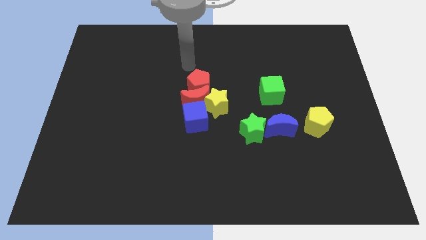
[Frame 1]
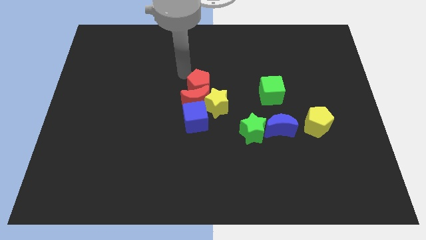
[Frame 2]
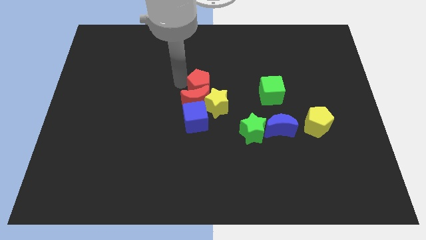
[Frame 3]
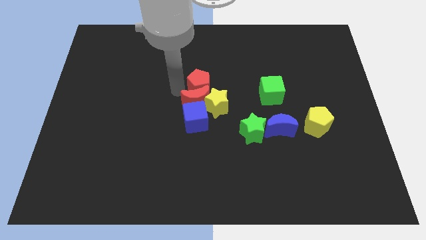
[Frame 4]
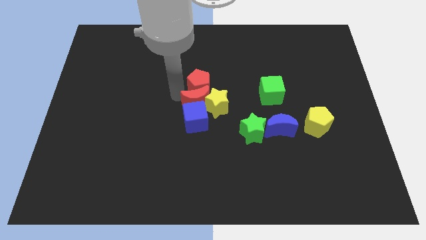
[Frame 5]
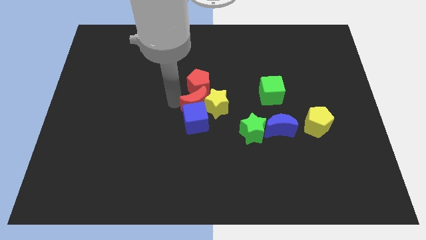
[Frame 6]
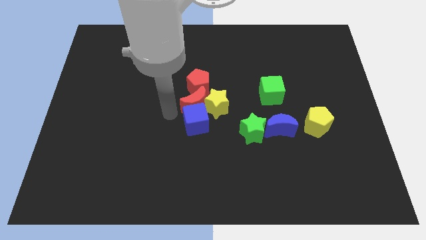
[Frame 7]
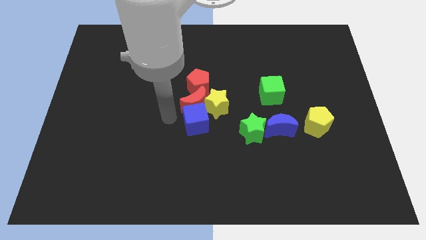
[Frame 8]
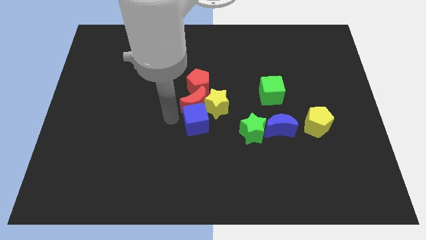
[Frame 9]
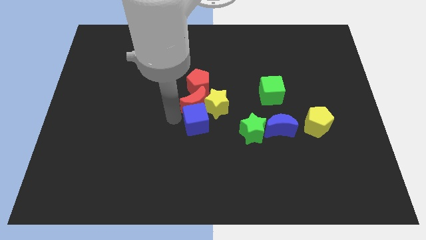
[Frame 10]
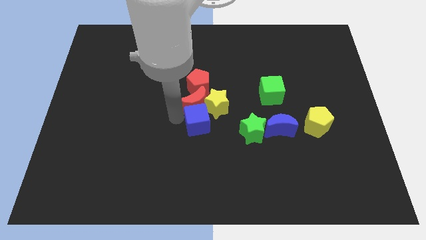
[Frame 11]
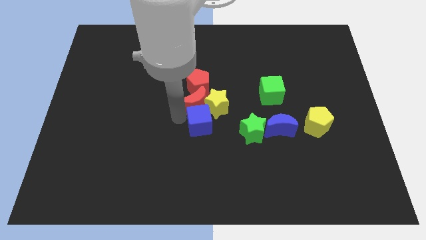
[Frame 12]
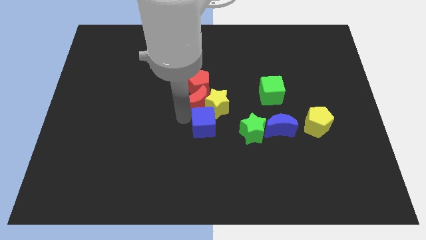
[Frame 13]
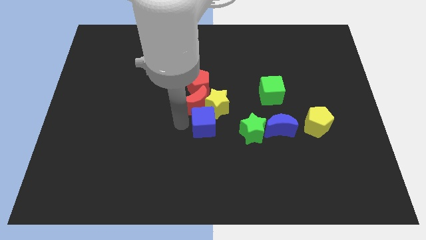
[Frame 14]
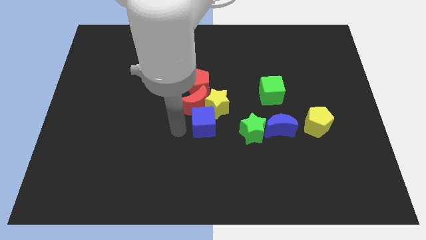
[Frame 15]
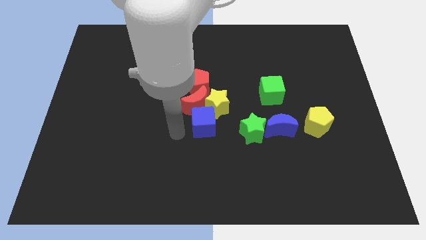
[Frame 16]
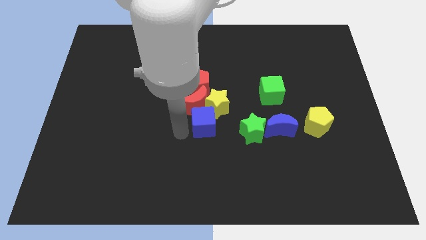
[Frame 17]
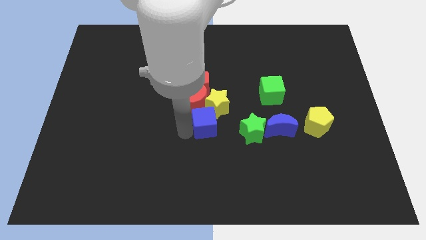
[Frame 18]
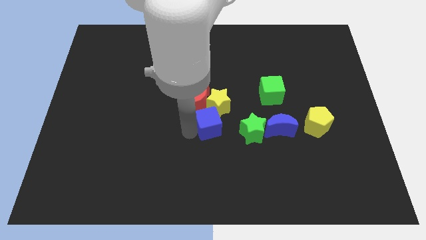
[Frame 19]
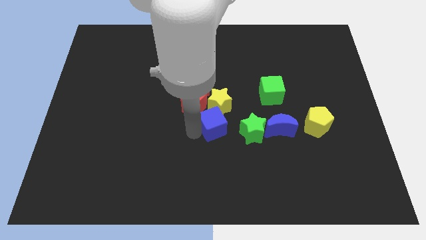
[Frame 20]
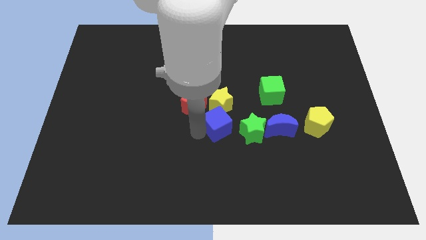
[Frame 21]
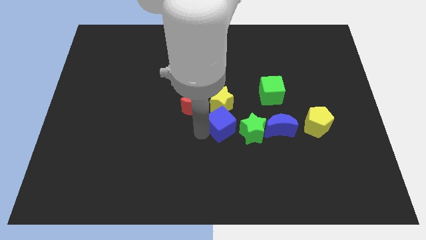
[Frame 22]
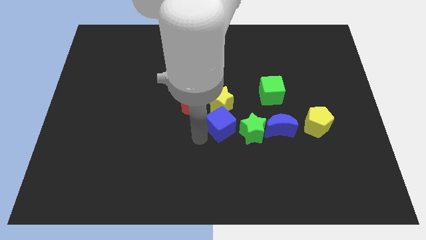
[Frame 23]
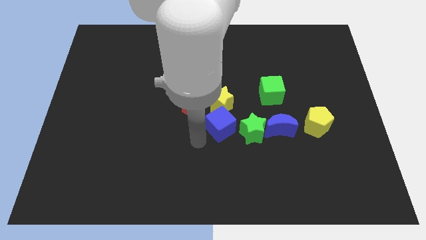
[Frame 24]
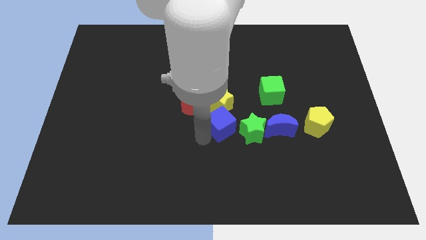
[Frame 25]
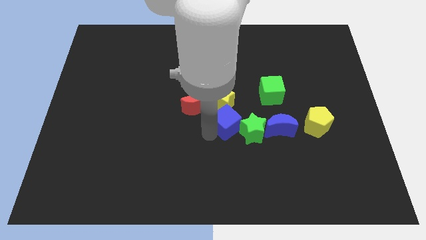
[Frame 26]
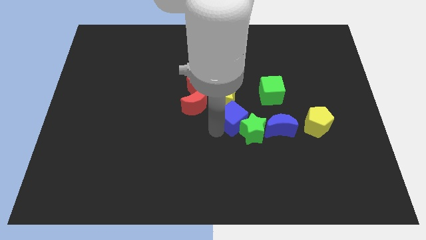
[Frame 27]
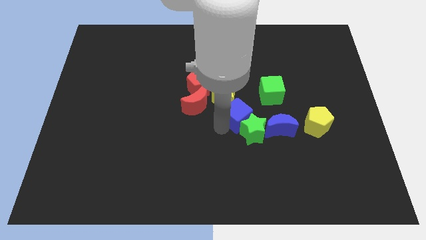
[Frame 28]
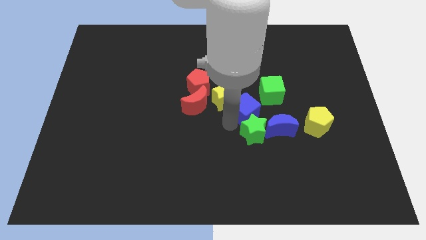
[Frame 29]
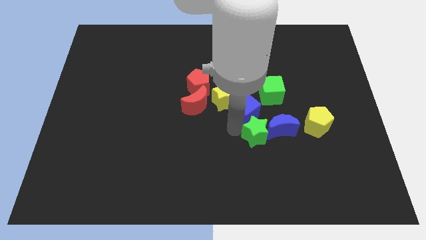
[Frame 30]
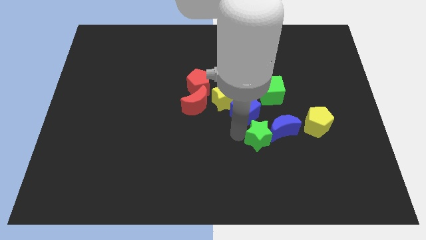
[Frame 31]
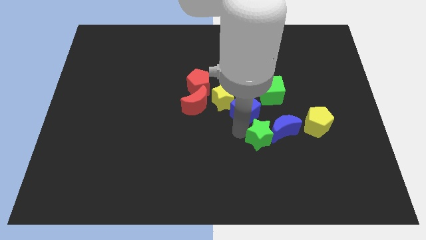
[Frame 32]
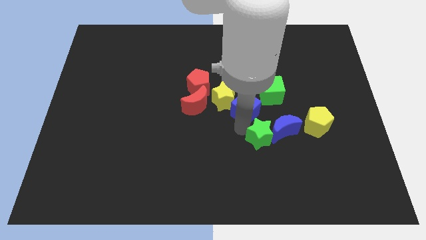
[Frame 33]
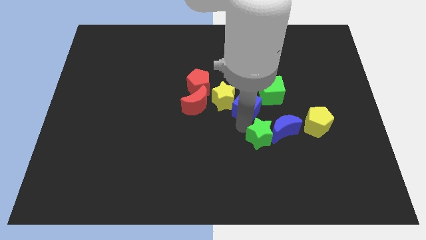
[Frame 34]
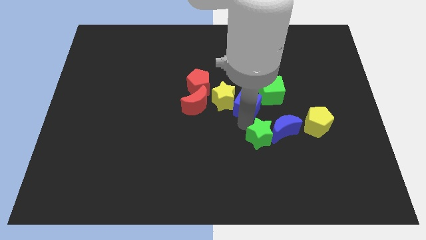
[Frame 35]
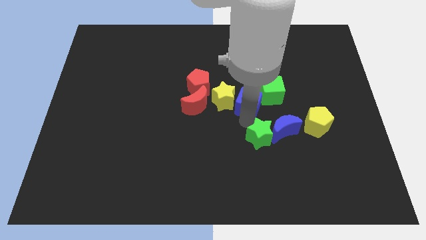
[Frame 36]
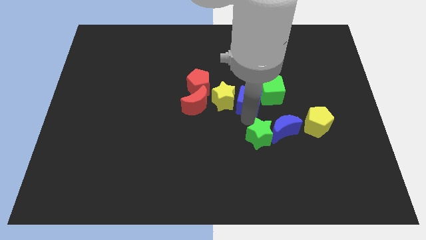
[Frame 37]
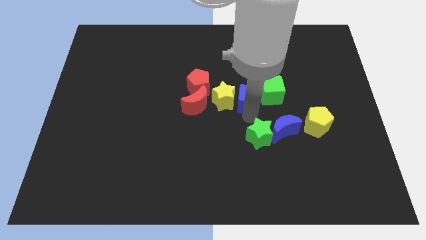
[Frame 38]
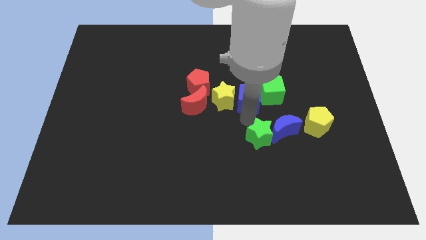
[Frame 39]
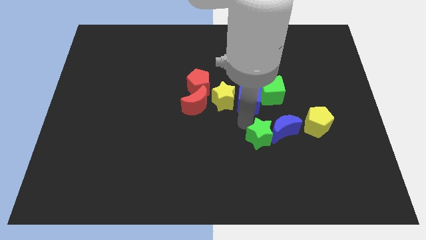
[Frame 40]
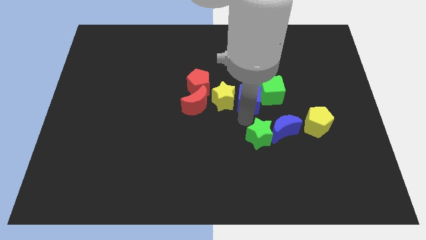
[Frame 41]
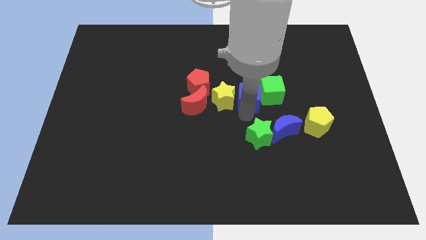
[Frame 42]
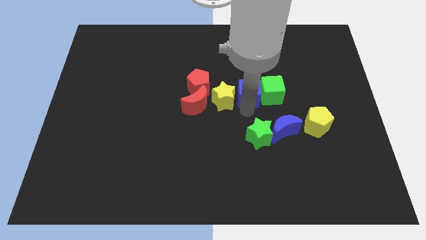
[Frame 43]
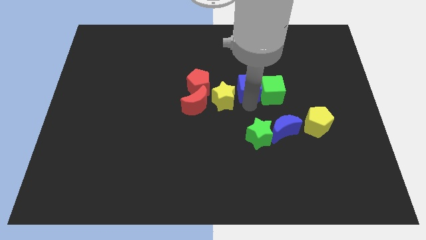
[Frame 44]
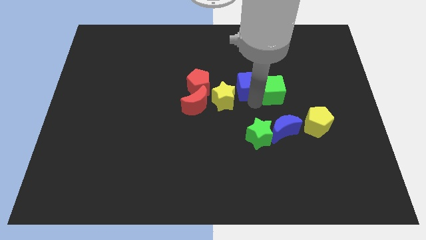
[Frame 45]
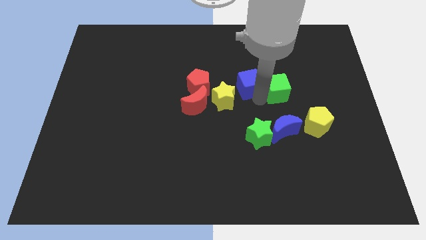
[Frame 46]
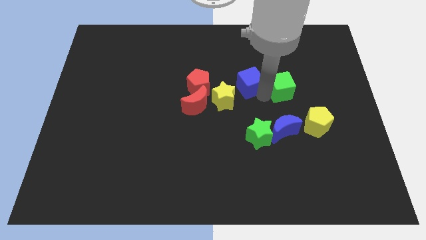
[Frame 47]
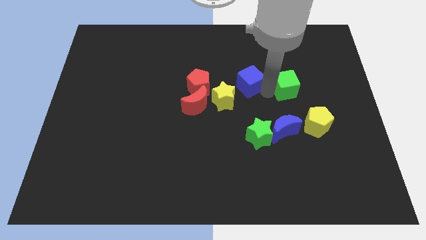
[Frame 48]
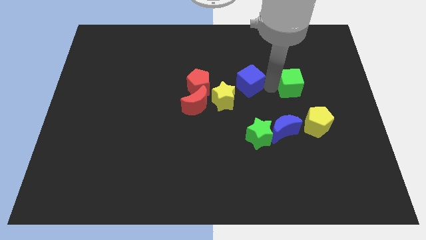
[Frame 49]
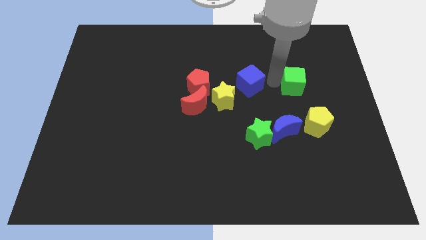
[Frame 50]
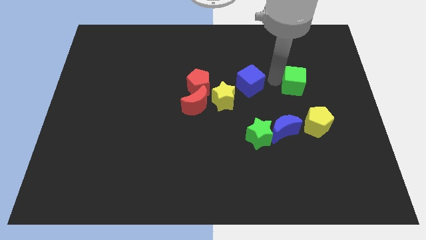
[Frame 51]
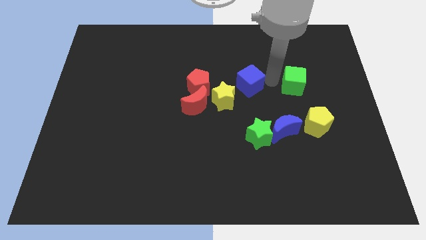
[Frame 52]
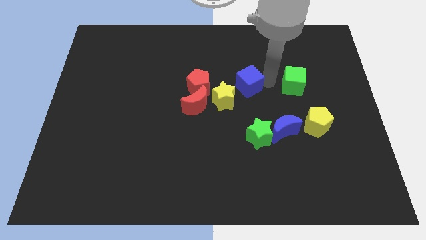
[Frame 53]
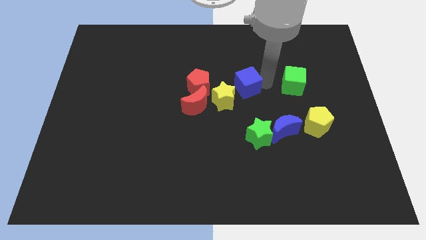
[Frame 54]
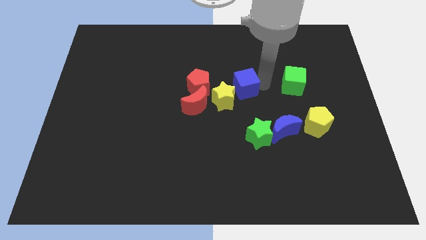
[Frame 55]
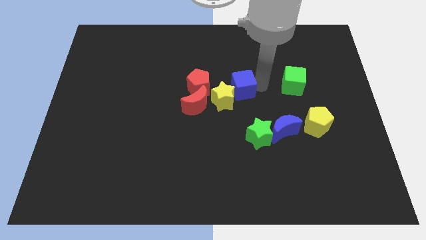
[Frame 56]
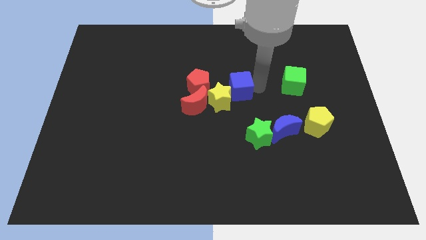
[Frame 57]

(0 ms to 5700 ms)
slide the blue cube to the top right of the red moon

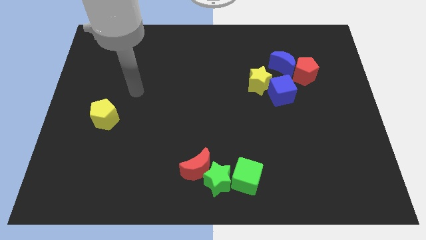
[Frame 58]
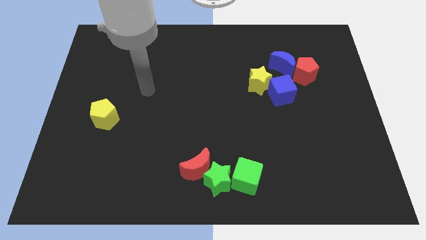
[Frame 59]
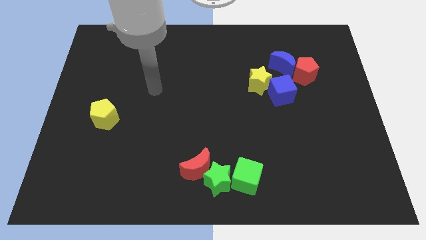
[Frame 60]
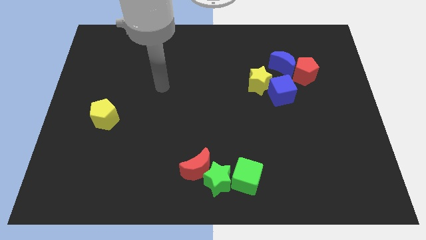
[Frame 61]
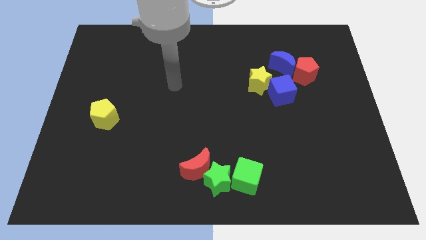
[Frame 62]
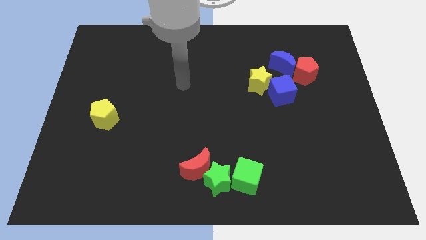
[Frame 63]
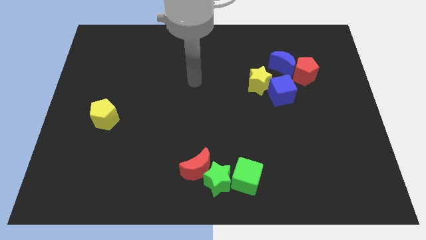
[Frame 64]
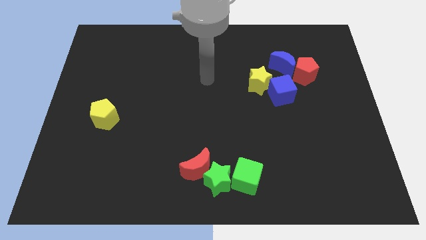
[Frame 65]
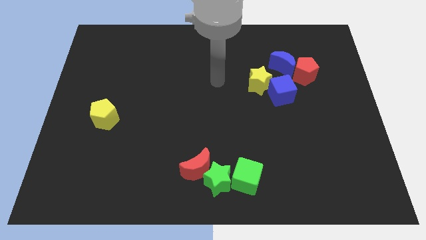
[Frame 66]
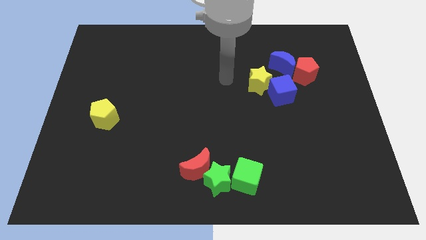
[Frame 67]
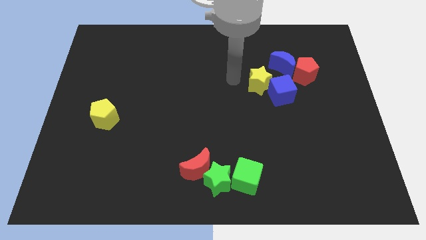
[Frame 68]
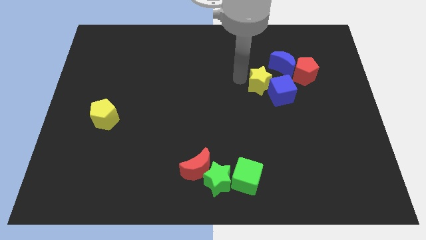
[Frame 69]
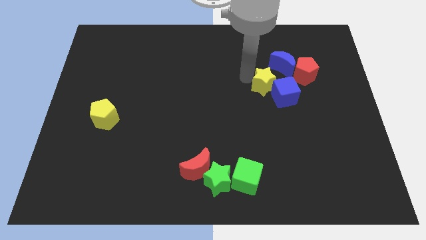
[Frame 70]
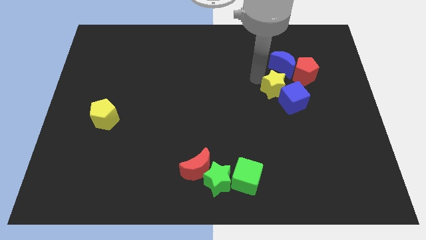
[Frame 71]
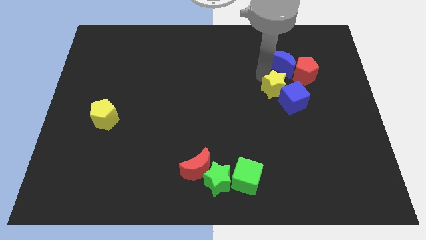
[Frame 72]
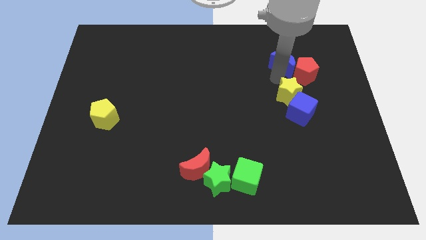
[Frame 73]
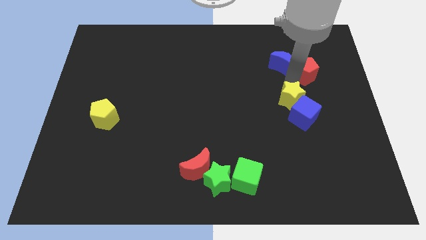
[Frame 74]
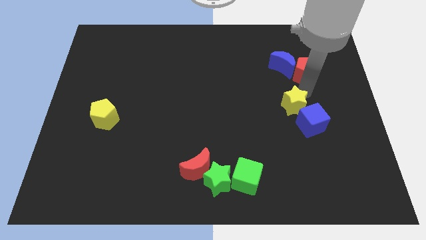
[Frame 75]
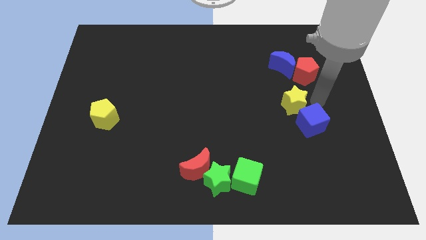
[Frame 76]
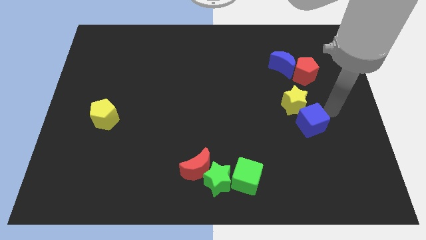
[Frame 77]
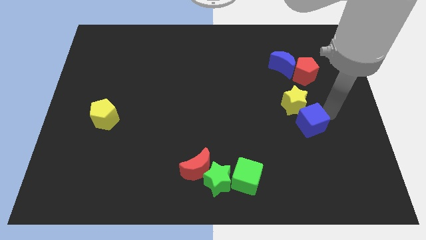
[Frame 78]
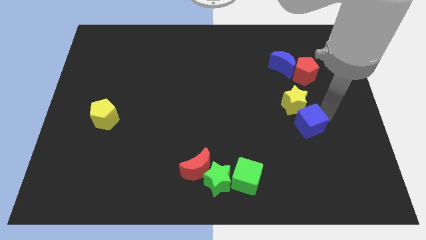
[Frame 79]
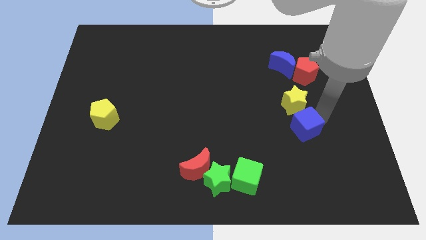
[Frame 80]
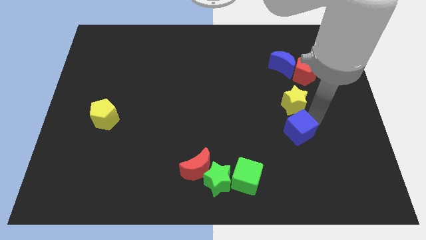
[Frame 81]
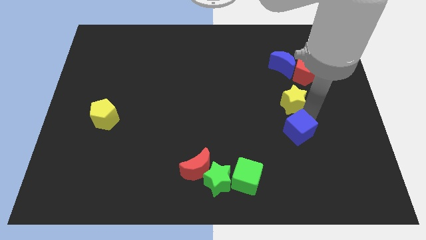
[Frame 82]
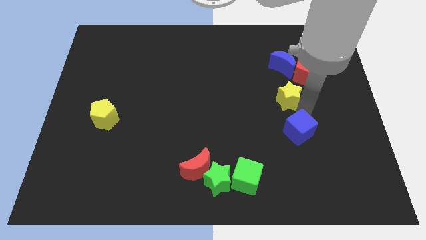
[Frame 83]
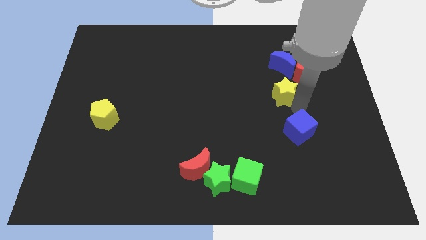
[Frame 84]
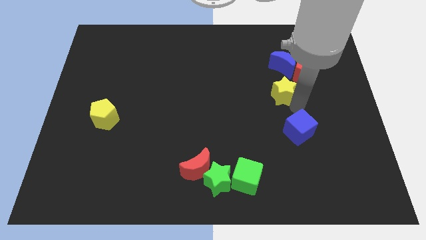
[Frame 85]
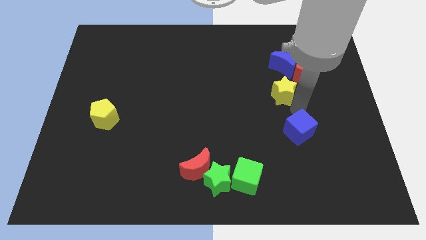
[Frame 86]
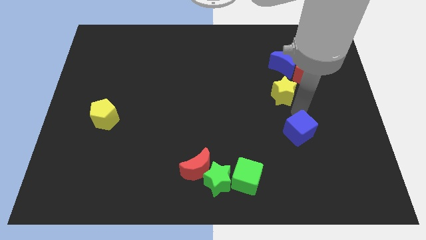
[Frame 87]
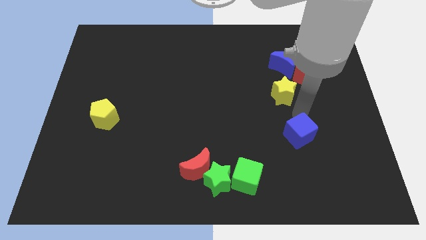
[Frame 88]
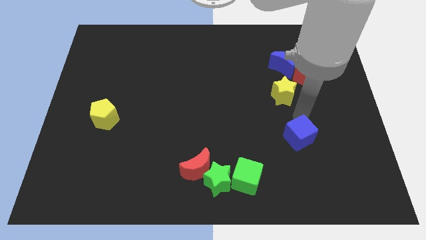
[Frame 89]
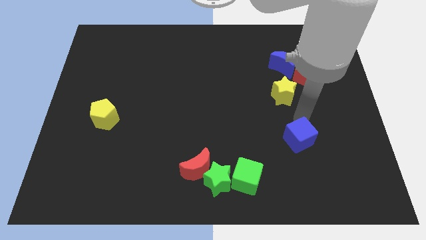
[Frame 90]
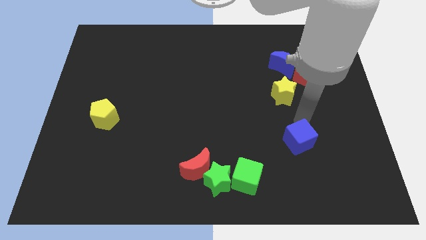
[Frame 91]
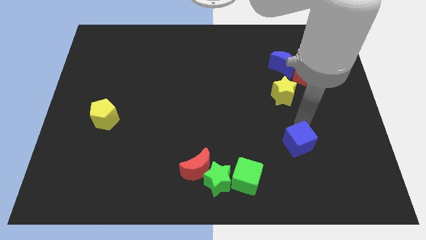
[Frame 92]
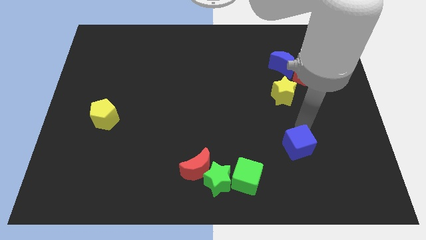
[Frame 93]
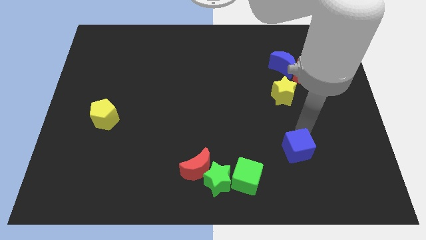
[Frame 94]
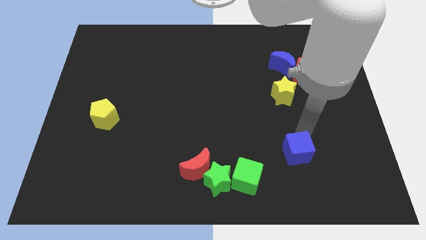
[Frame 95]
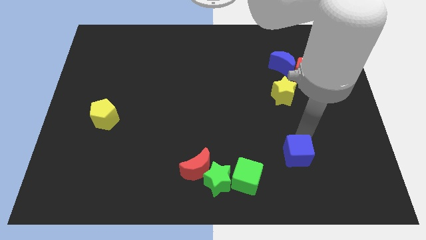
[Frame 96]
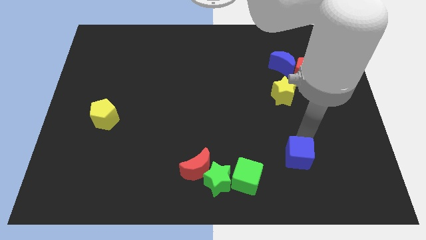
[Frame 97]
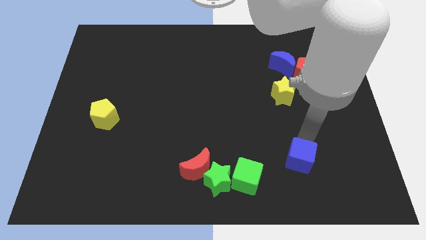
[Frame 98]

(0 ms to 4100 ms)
put the blue cube right of the green cube
